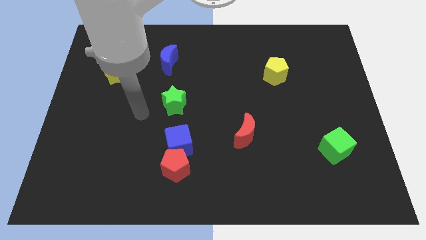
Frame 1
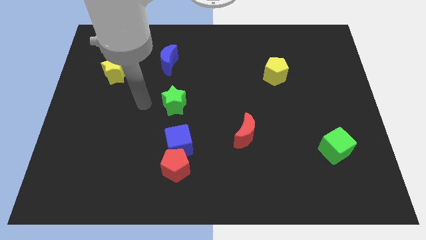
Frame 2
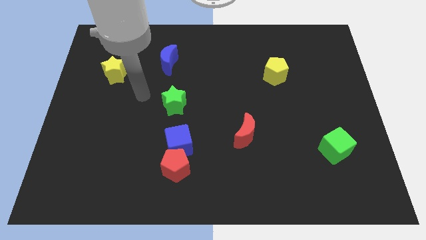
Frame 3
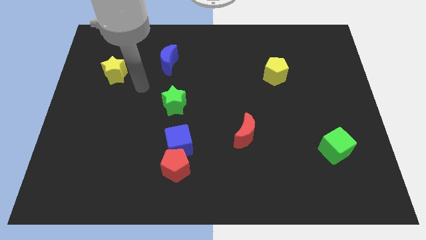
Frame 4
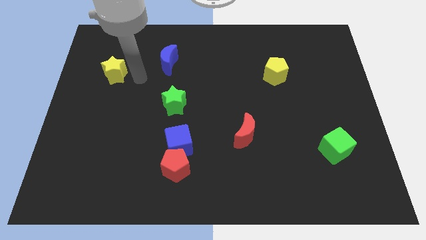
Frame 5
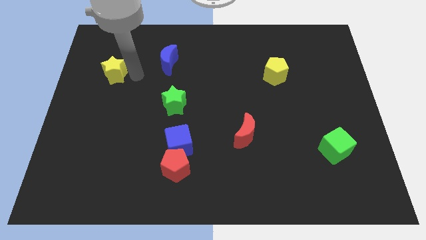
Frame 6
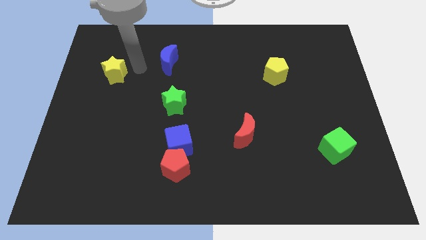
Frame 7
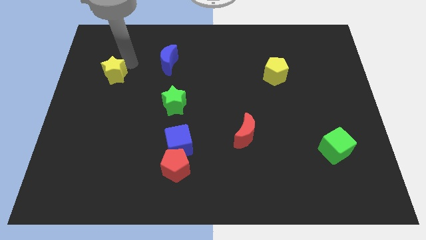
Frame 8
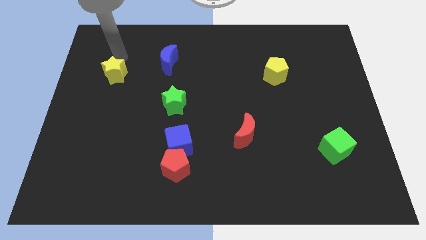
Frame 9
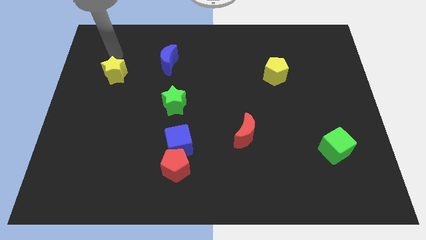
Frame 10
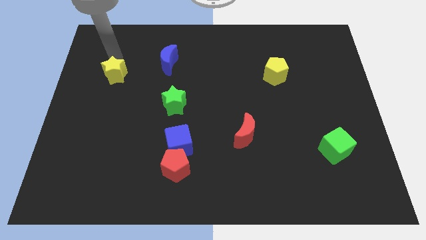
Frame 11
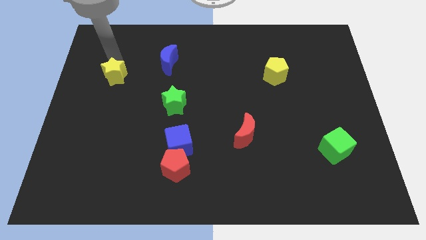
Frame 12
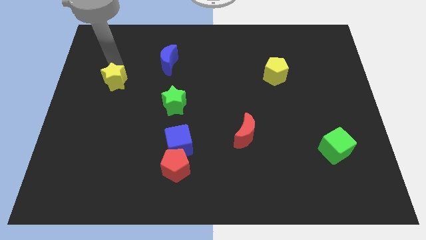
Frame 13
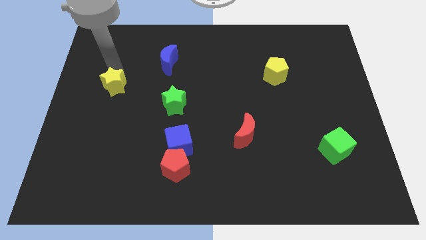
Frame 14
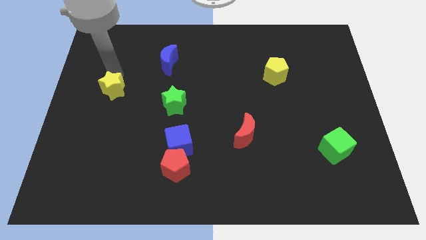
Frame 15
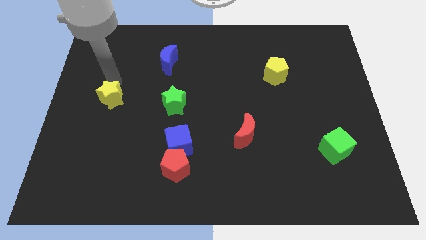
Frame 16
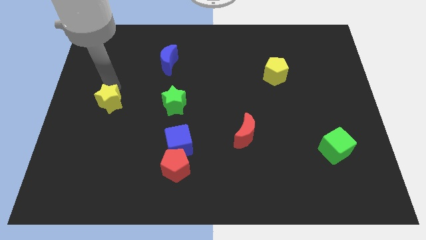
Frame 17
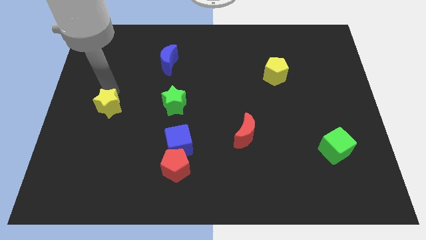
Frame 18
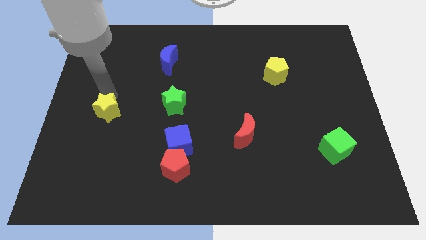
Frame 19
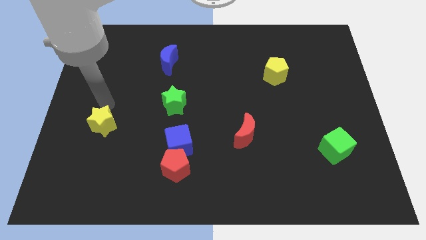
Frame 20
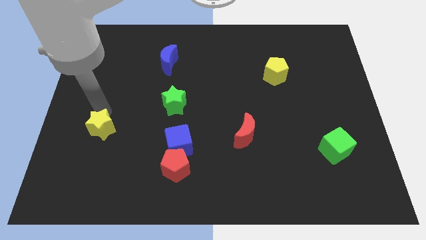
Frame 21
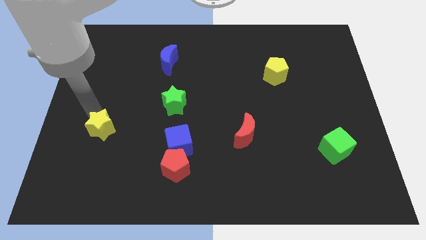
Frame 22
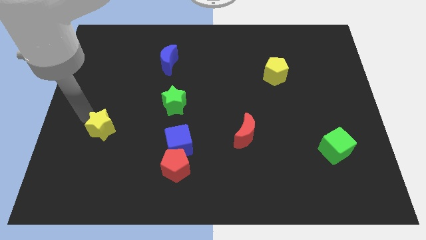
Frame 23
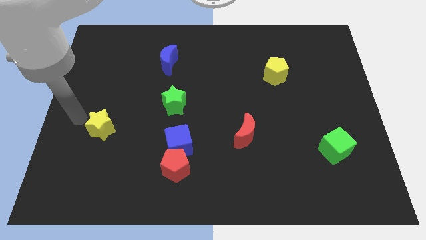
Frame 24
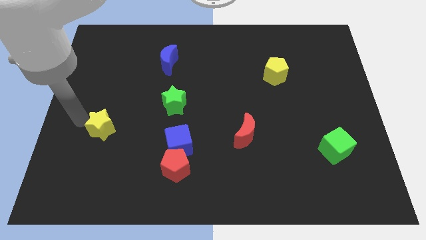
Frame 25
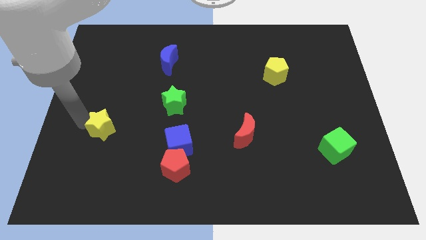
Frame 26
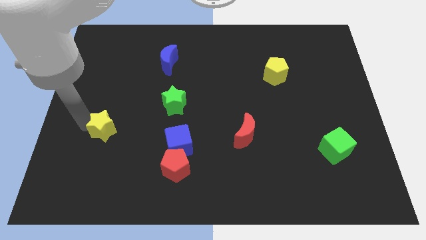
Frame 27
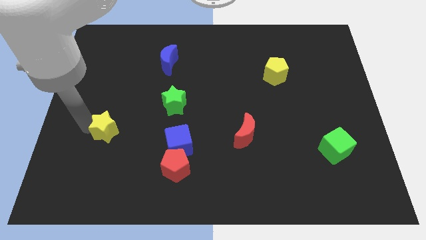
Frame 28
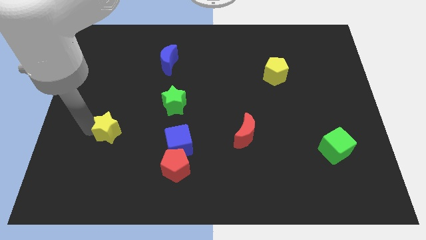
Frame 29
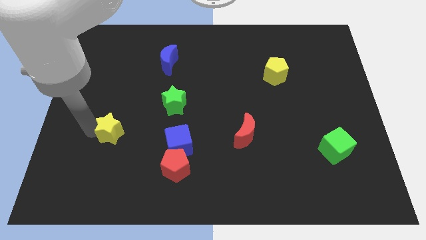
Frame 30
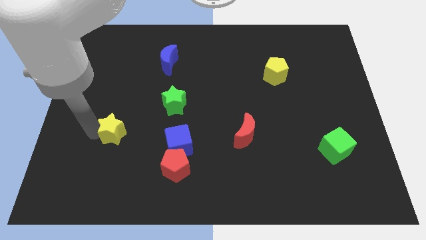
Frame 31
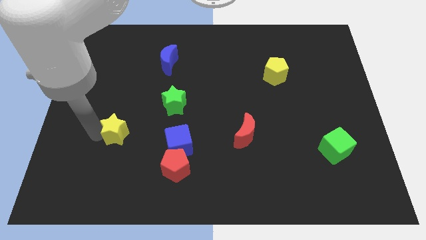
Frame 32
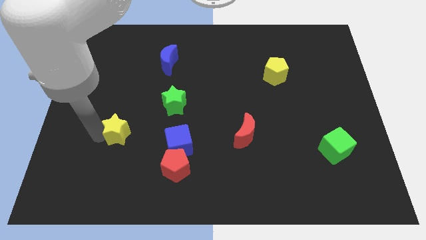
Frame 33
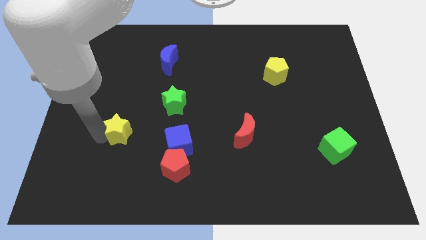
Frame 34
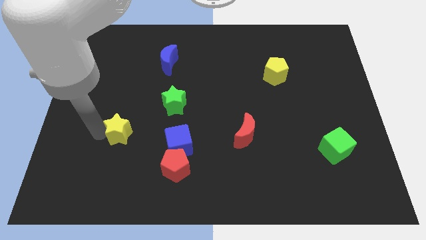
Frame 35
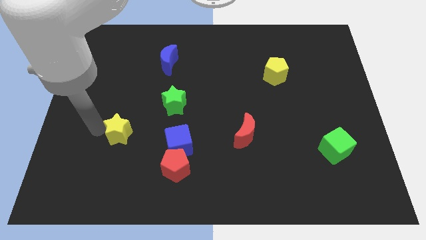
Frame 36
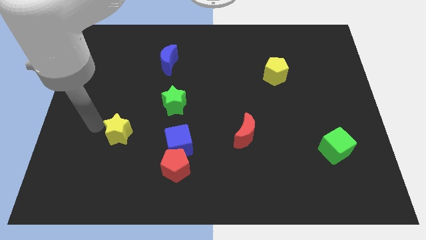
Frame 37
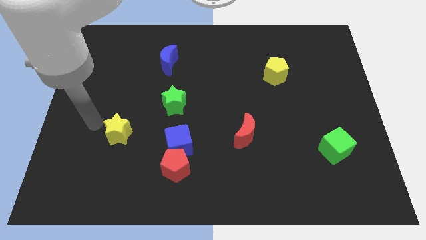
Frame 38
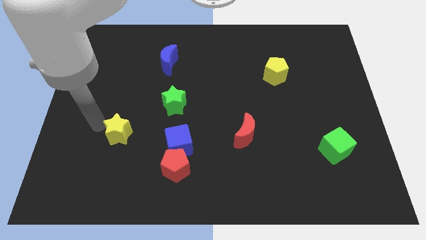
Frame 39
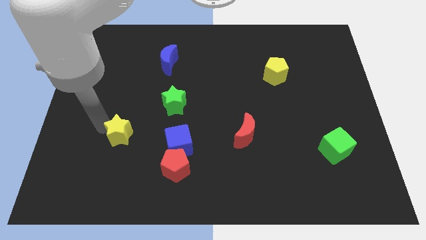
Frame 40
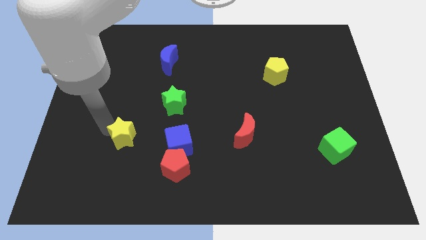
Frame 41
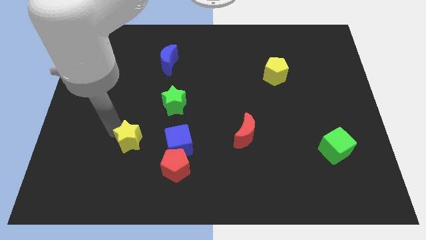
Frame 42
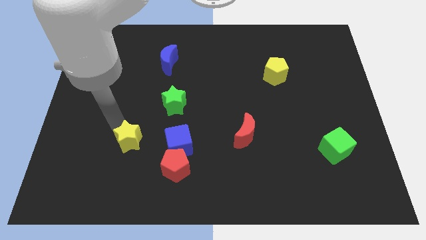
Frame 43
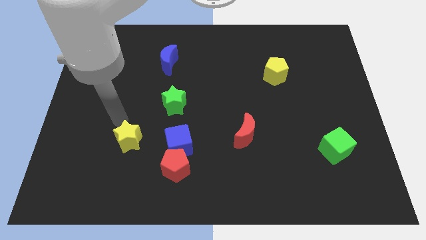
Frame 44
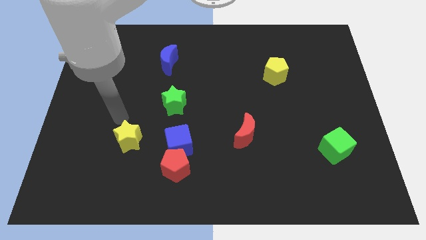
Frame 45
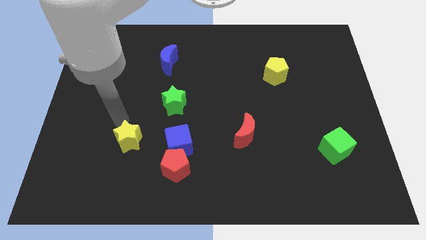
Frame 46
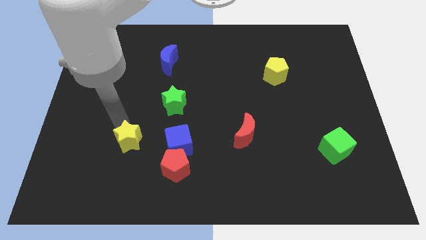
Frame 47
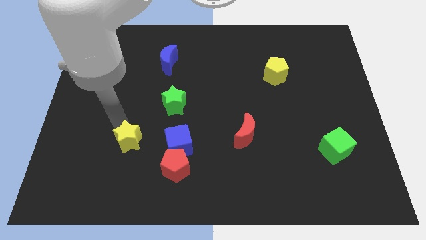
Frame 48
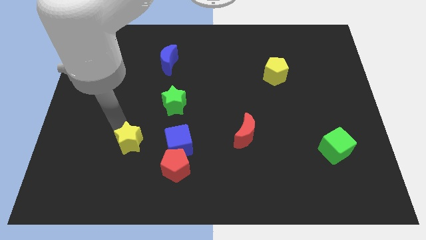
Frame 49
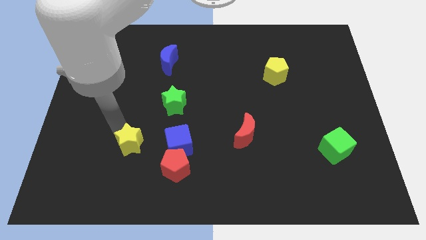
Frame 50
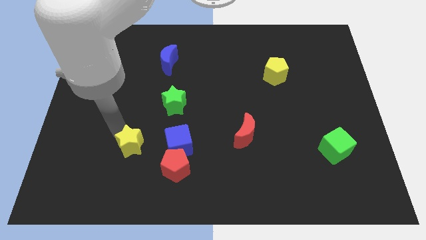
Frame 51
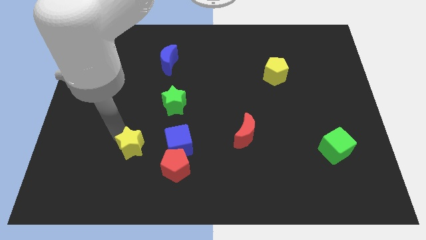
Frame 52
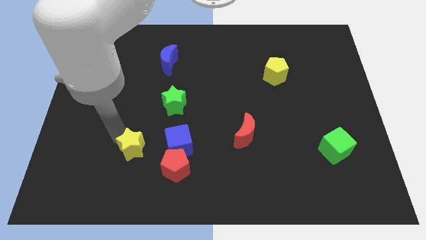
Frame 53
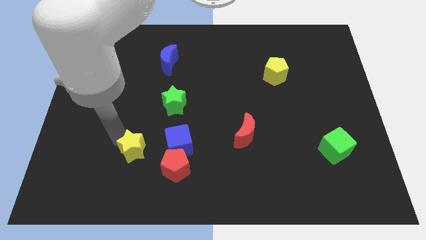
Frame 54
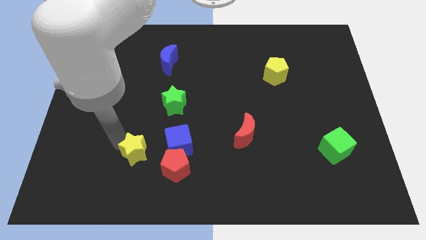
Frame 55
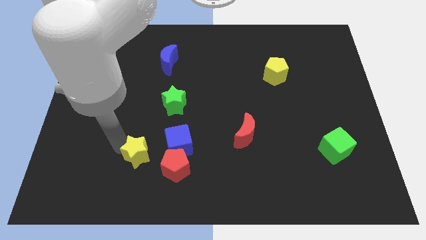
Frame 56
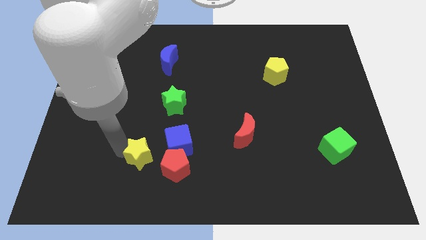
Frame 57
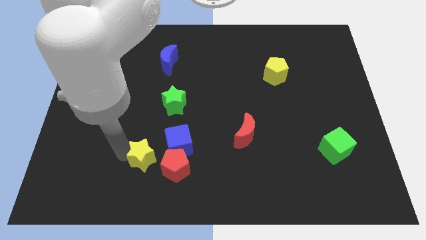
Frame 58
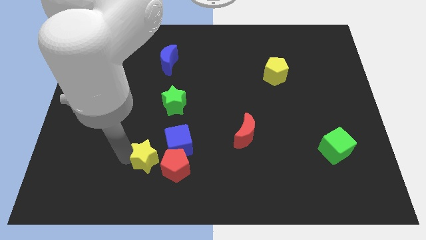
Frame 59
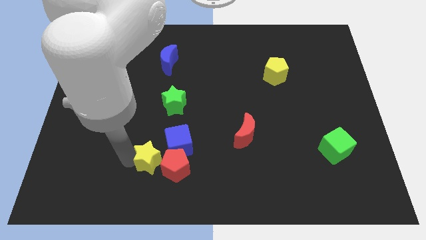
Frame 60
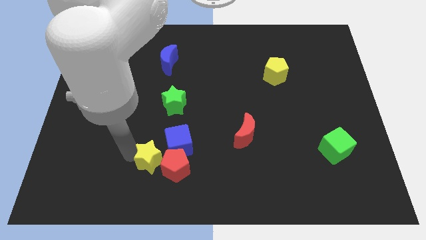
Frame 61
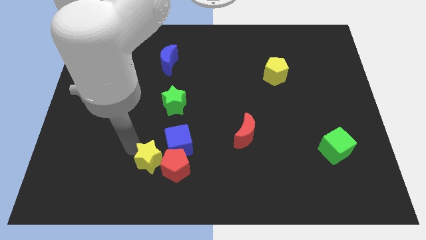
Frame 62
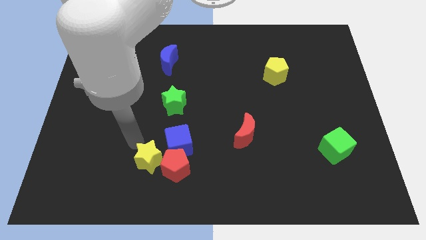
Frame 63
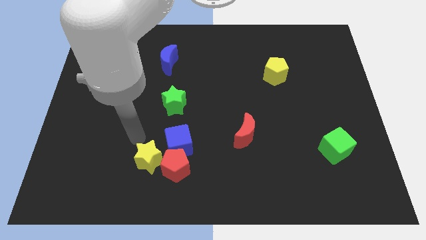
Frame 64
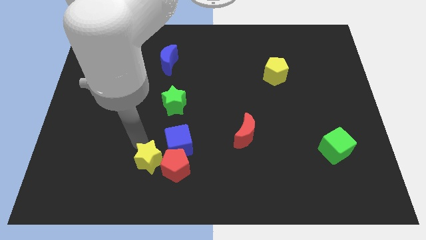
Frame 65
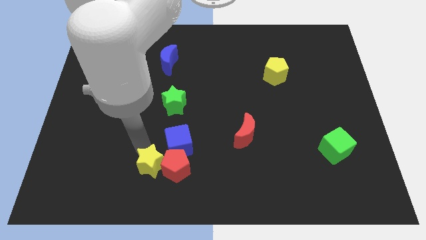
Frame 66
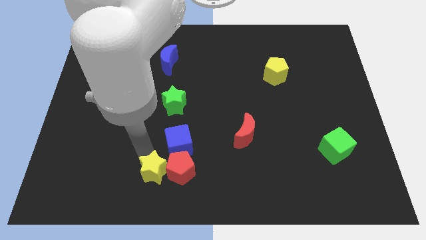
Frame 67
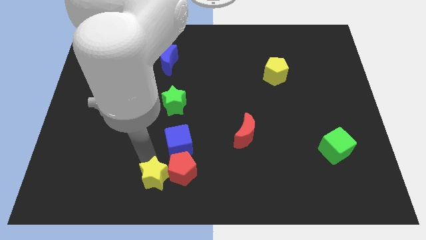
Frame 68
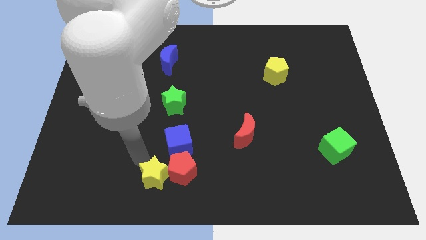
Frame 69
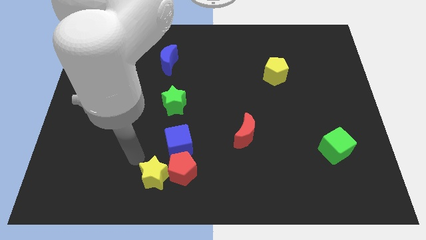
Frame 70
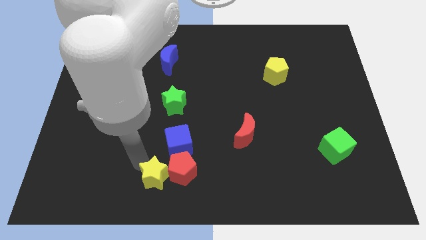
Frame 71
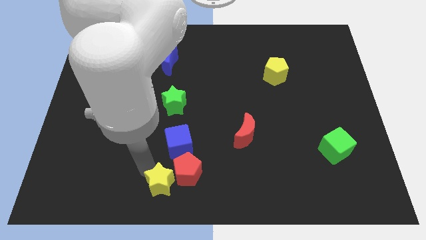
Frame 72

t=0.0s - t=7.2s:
put the yellow star to the bottom
